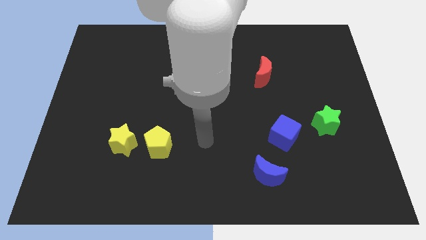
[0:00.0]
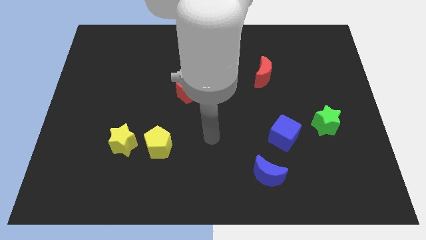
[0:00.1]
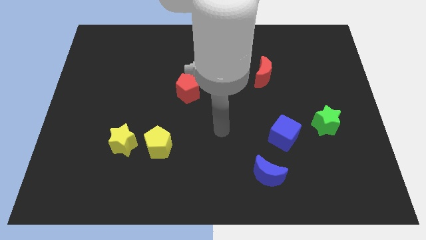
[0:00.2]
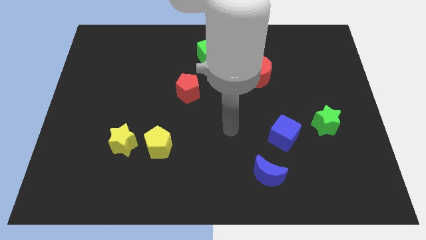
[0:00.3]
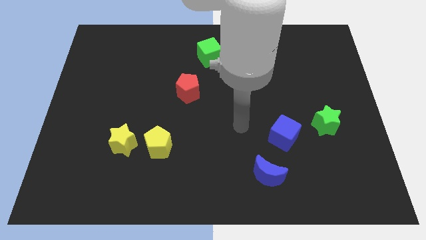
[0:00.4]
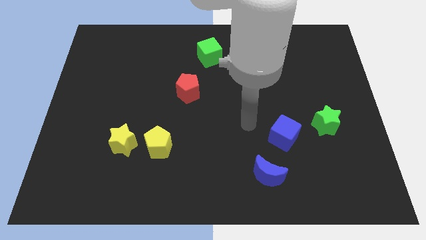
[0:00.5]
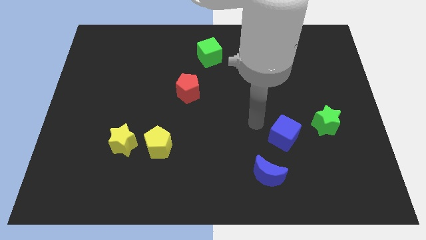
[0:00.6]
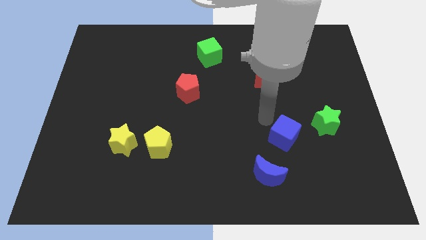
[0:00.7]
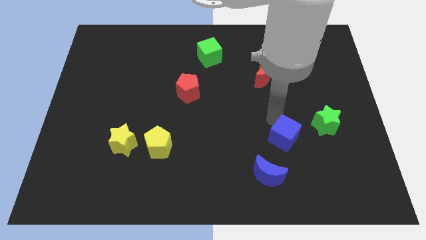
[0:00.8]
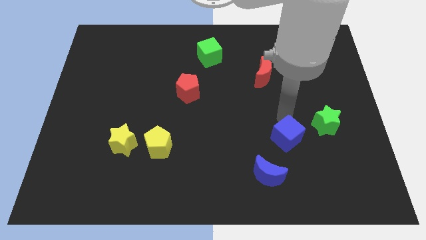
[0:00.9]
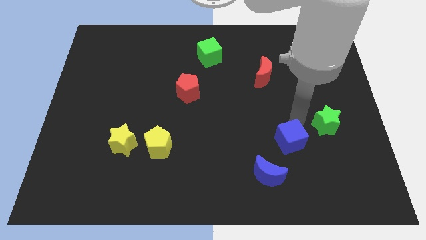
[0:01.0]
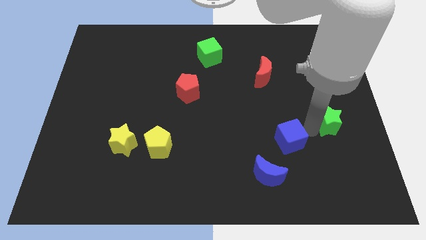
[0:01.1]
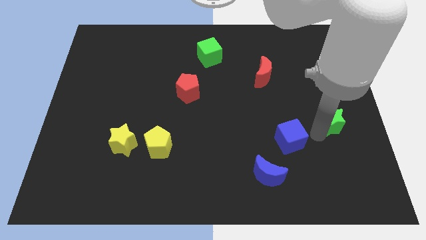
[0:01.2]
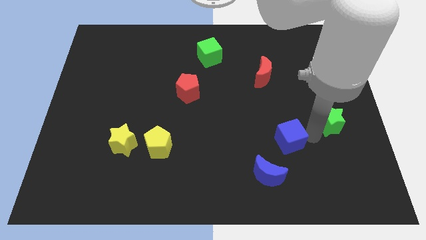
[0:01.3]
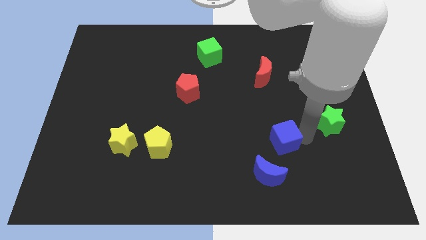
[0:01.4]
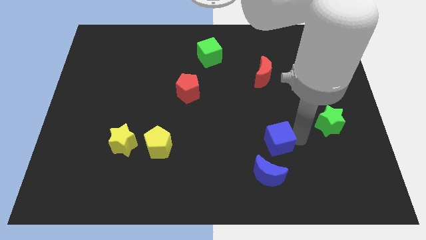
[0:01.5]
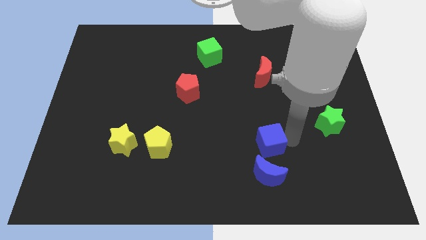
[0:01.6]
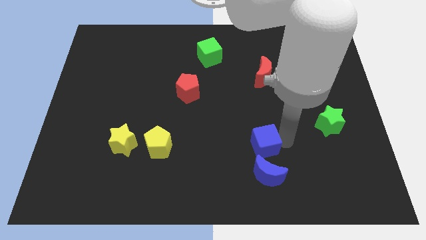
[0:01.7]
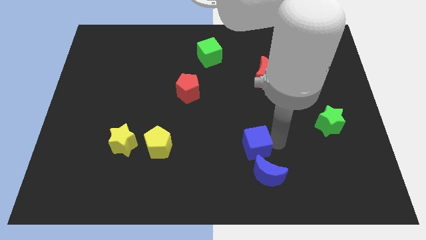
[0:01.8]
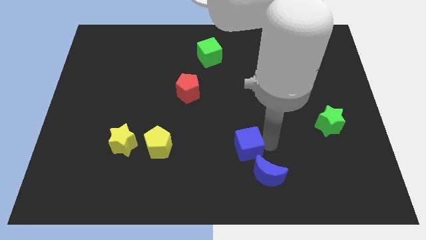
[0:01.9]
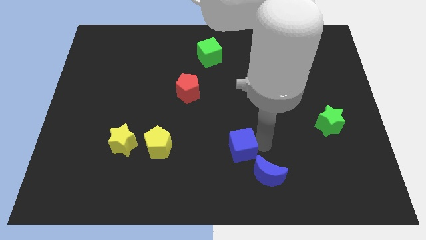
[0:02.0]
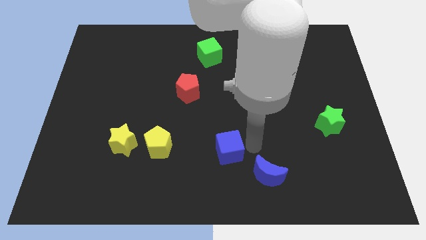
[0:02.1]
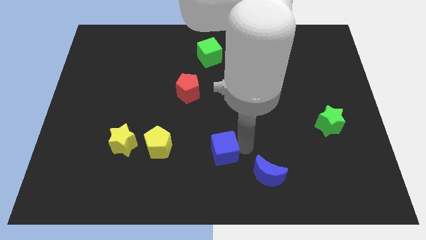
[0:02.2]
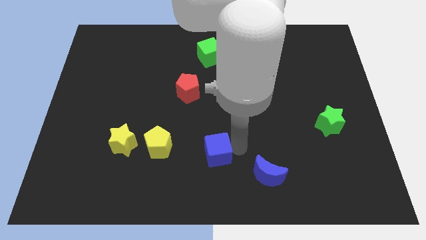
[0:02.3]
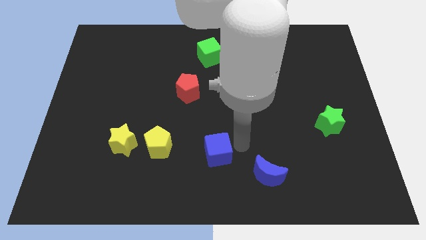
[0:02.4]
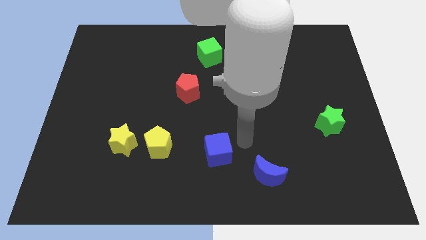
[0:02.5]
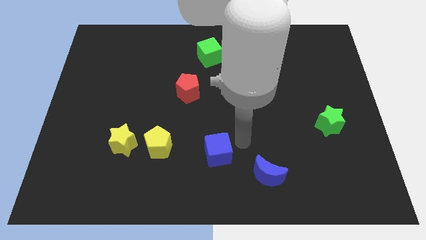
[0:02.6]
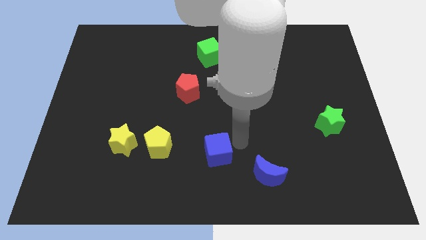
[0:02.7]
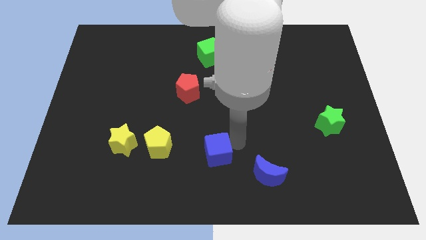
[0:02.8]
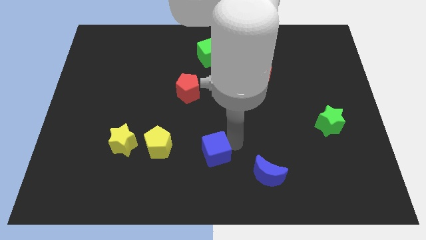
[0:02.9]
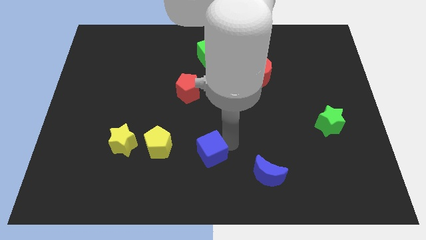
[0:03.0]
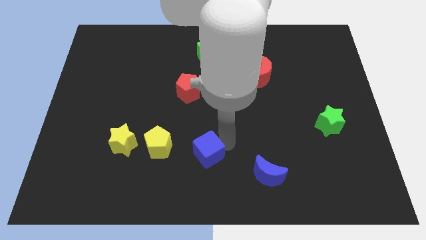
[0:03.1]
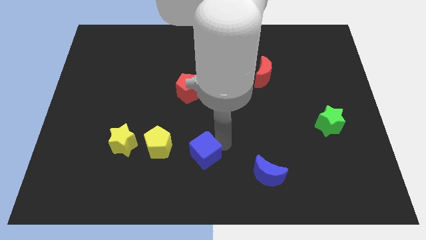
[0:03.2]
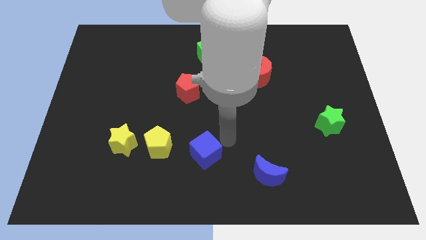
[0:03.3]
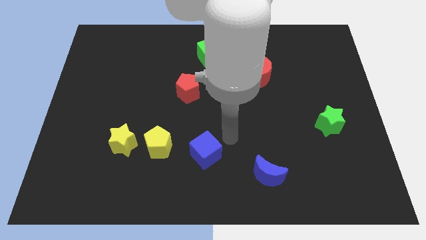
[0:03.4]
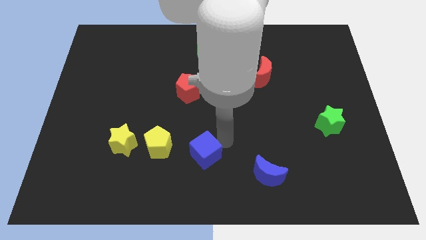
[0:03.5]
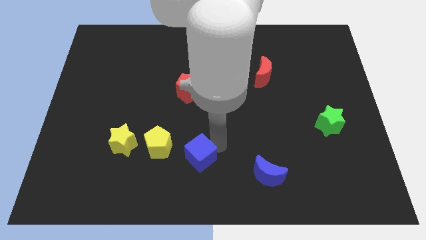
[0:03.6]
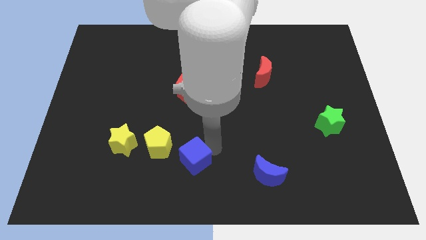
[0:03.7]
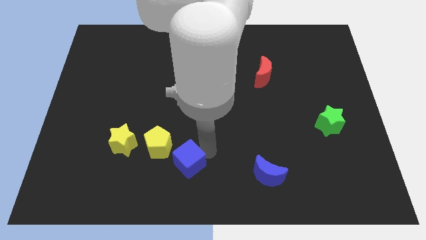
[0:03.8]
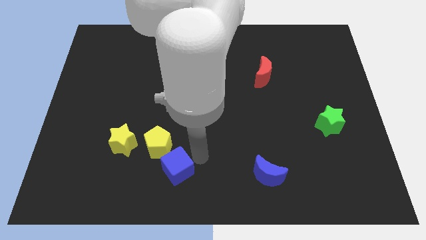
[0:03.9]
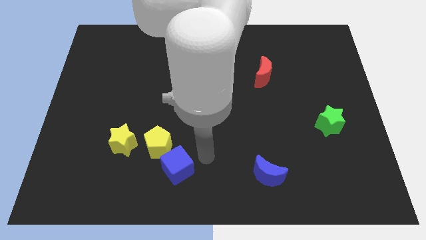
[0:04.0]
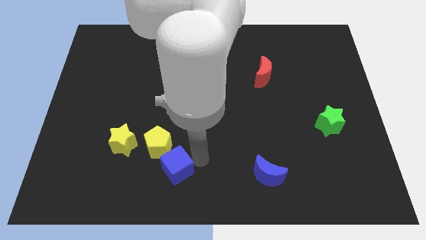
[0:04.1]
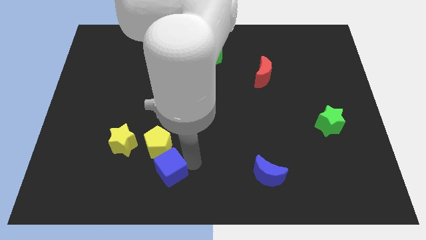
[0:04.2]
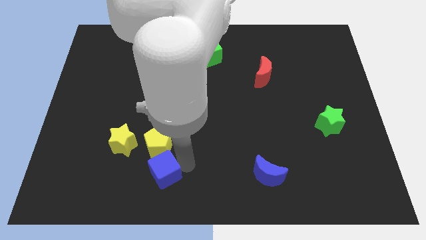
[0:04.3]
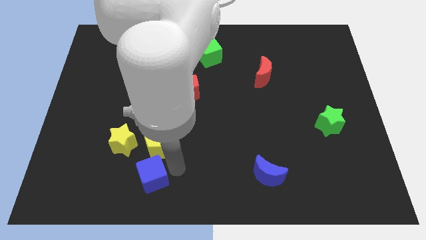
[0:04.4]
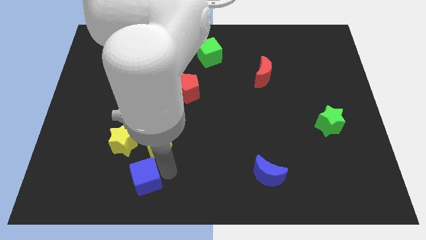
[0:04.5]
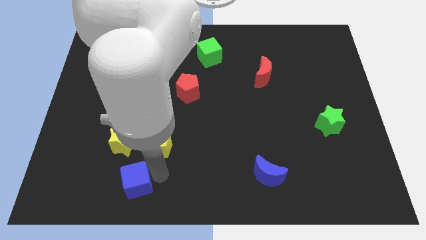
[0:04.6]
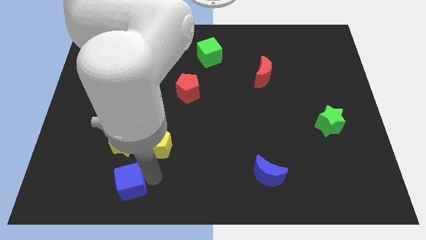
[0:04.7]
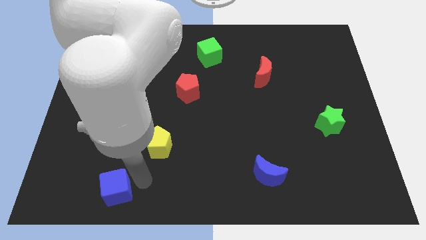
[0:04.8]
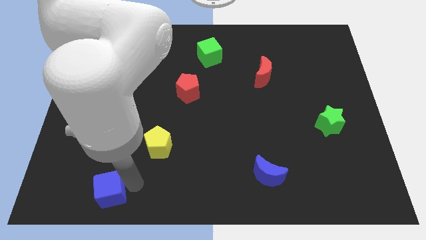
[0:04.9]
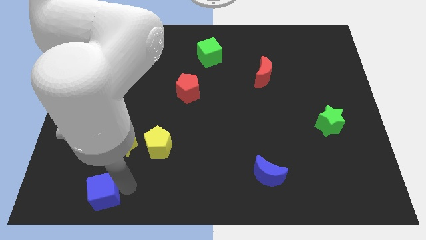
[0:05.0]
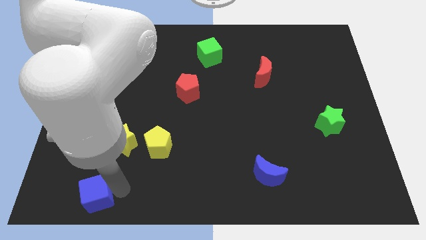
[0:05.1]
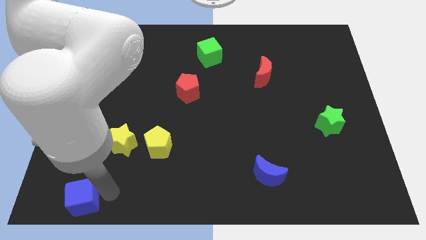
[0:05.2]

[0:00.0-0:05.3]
slide the blue cube to the bottom left

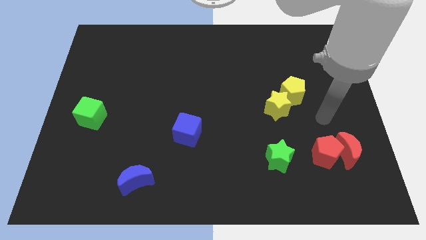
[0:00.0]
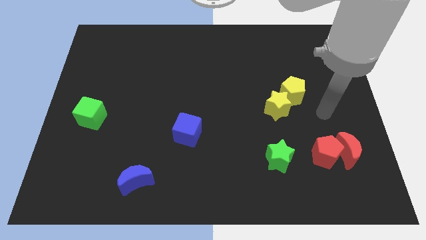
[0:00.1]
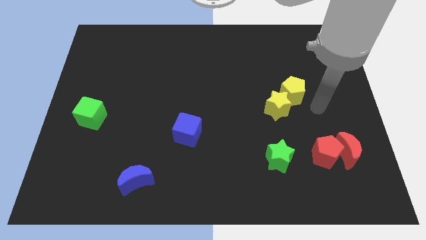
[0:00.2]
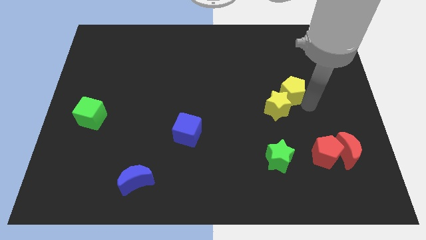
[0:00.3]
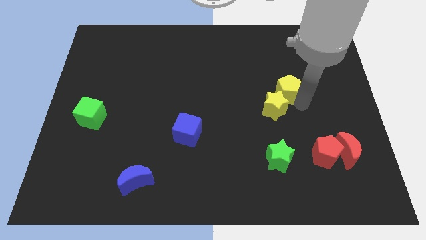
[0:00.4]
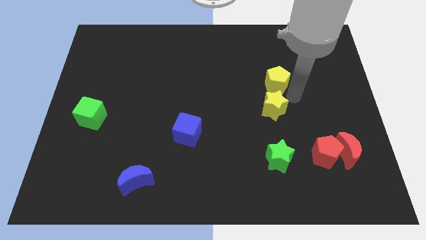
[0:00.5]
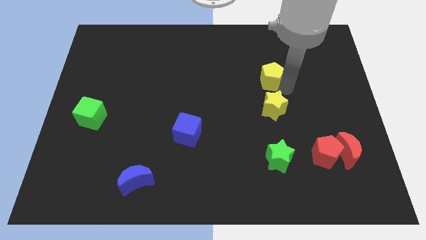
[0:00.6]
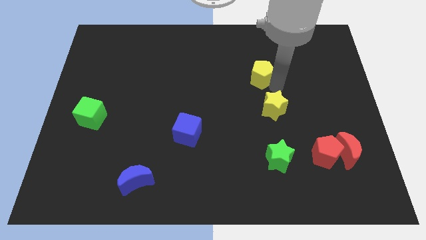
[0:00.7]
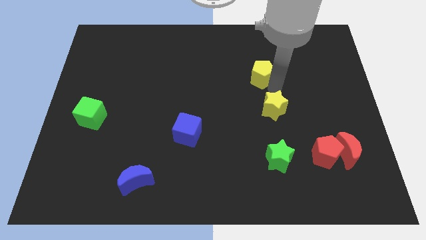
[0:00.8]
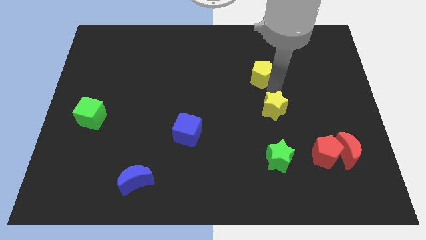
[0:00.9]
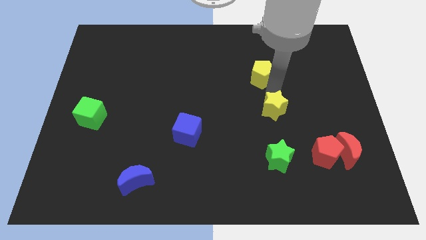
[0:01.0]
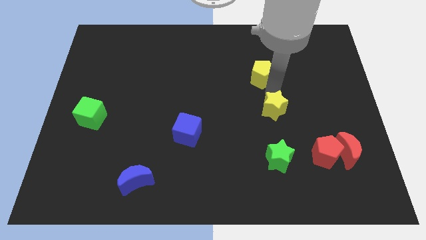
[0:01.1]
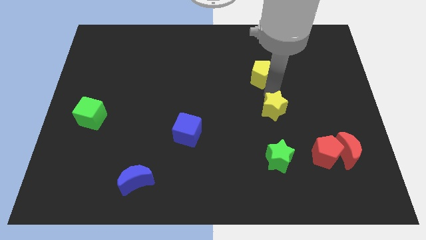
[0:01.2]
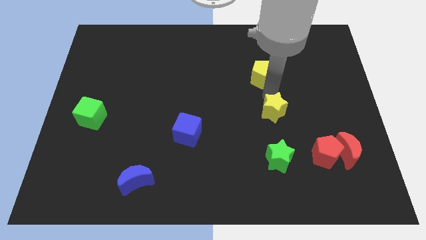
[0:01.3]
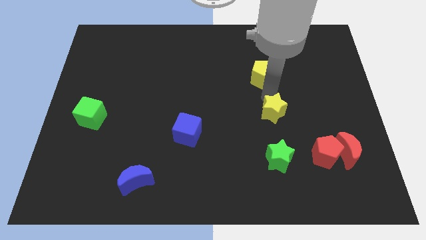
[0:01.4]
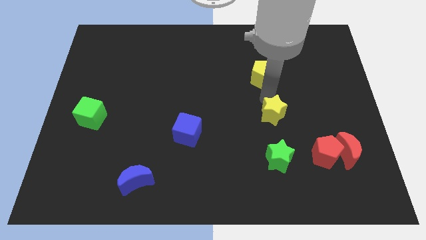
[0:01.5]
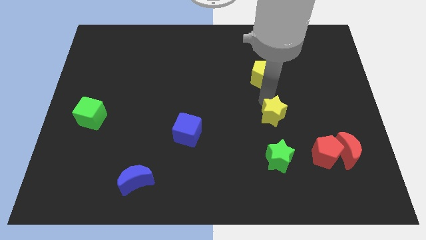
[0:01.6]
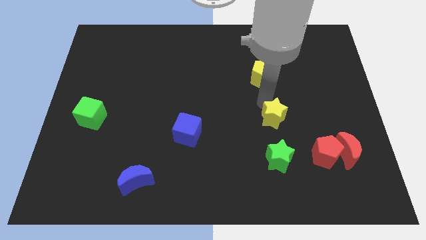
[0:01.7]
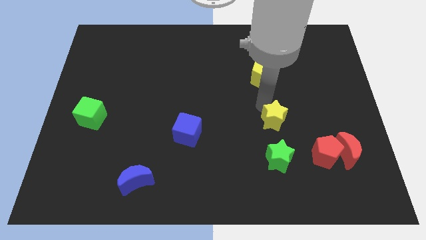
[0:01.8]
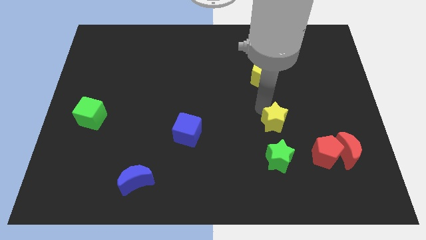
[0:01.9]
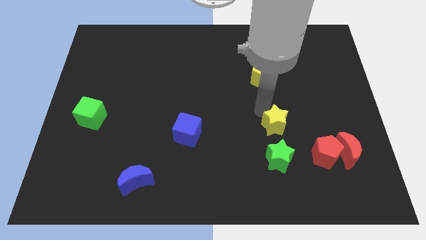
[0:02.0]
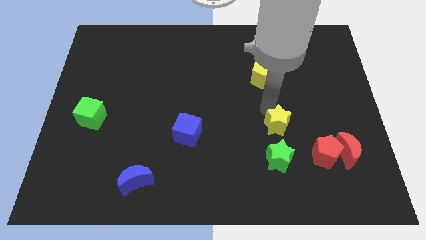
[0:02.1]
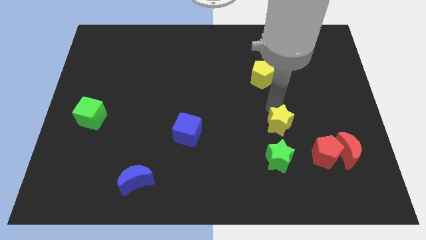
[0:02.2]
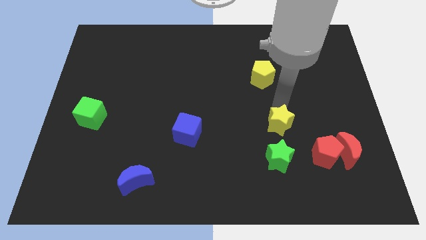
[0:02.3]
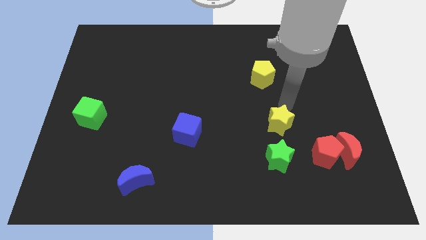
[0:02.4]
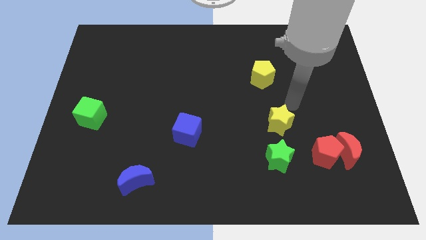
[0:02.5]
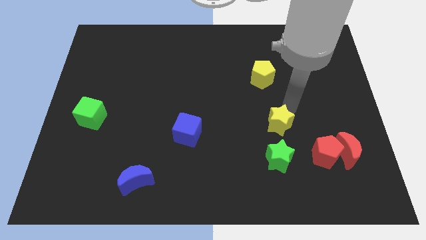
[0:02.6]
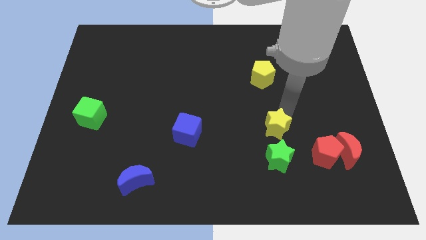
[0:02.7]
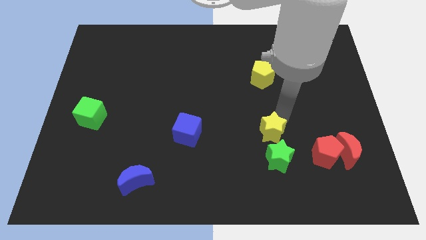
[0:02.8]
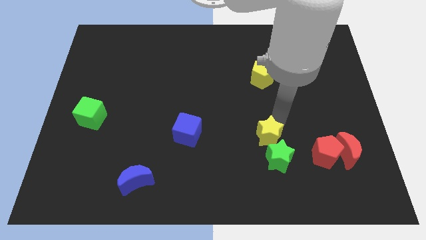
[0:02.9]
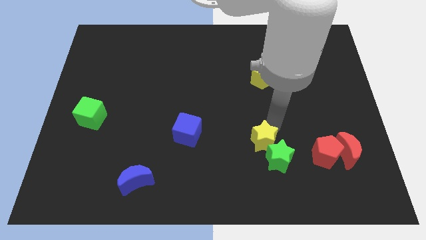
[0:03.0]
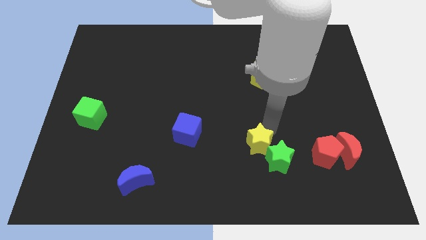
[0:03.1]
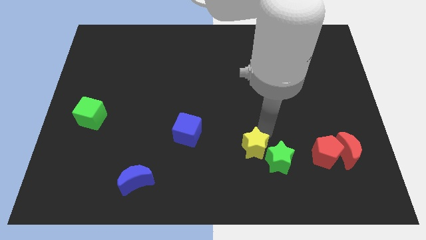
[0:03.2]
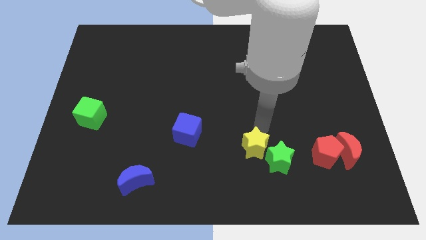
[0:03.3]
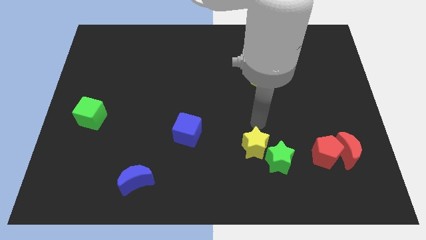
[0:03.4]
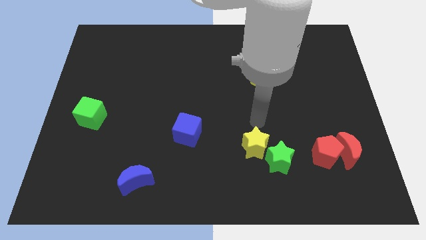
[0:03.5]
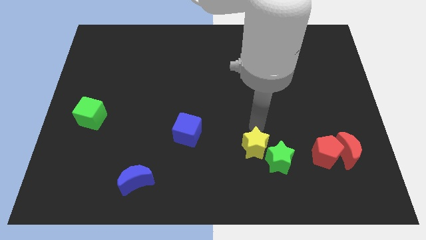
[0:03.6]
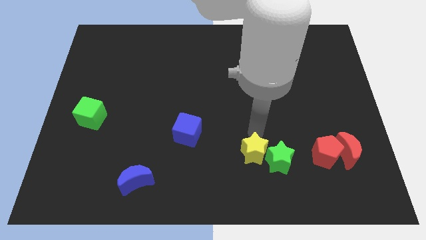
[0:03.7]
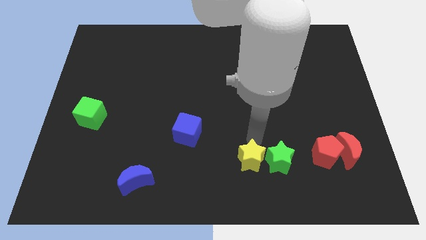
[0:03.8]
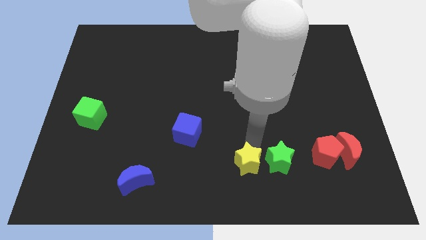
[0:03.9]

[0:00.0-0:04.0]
put the yellow star to the bottom side
